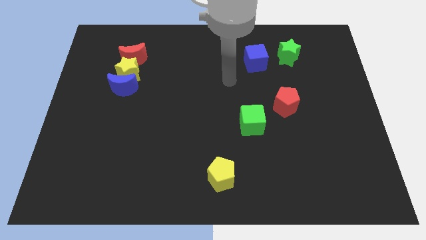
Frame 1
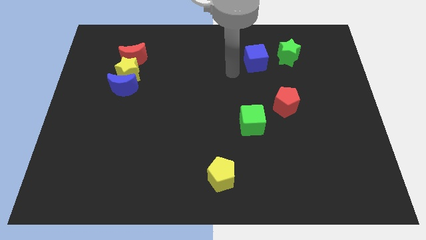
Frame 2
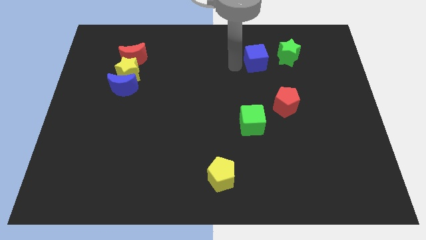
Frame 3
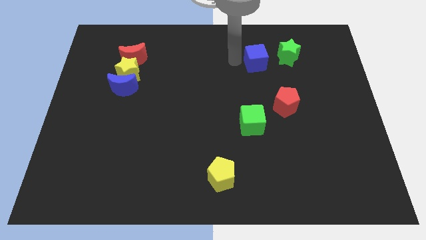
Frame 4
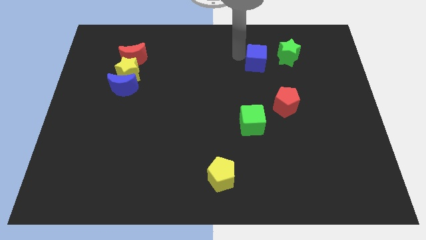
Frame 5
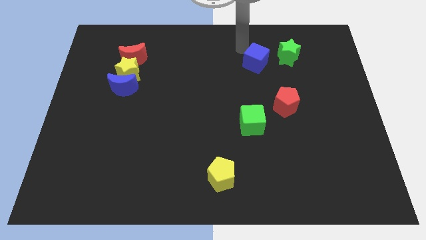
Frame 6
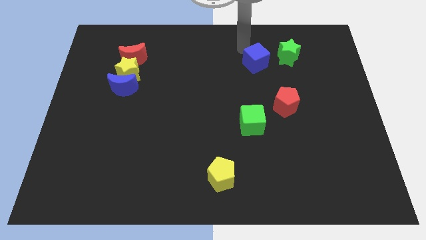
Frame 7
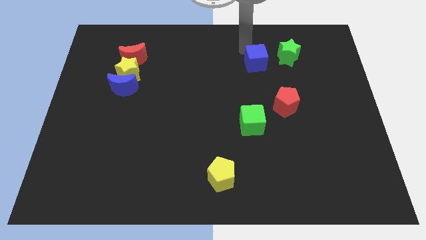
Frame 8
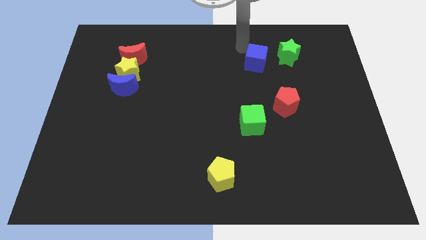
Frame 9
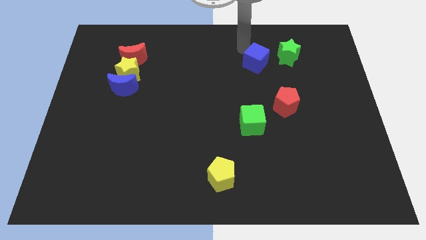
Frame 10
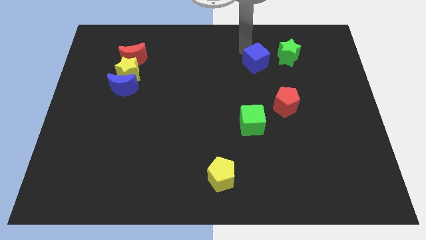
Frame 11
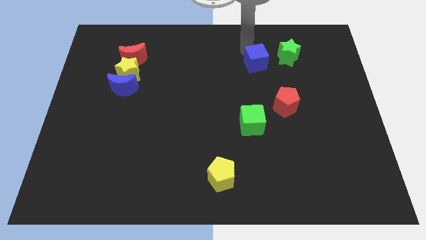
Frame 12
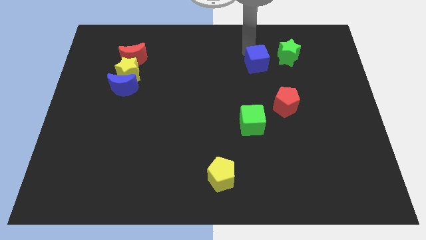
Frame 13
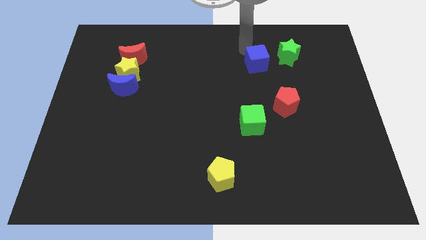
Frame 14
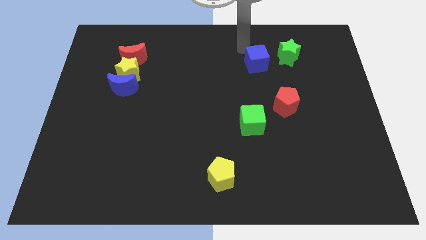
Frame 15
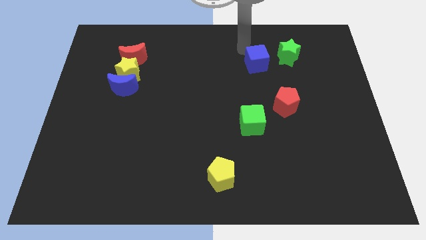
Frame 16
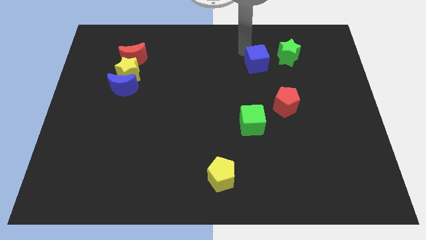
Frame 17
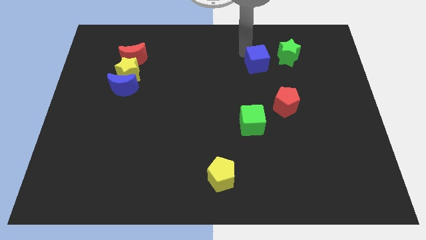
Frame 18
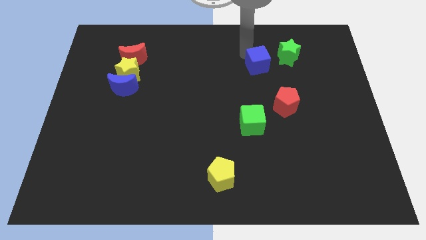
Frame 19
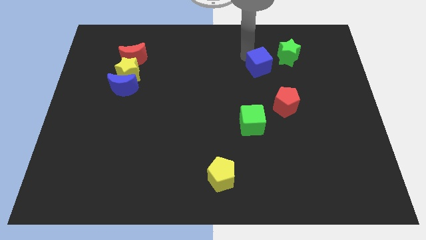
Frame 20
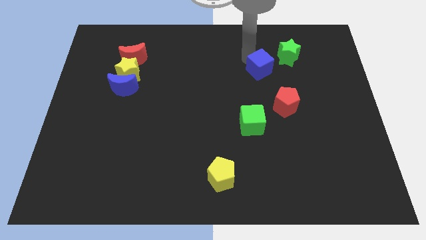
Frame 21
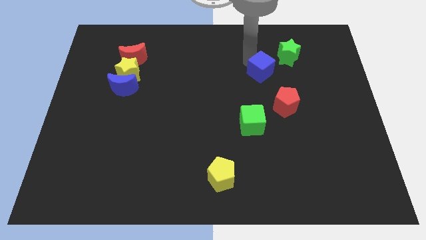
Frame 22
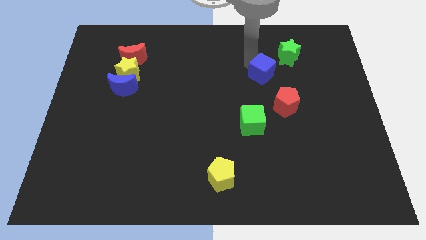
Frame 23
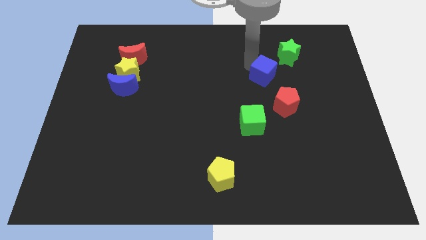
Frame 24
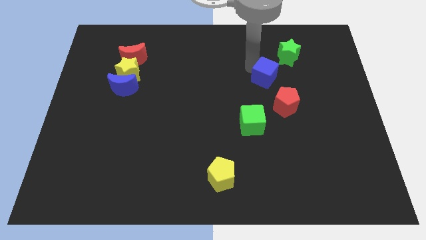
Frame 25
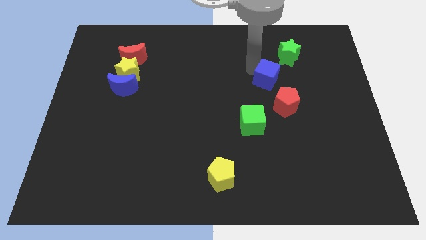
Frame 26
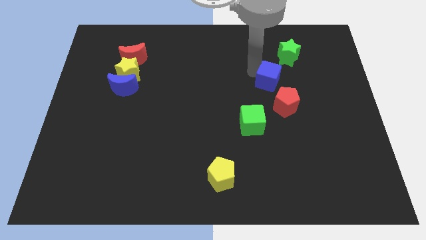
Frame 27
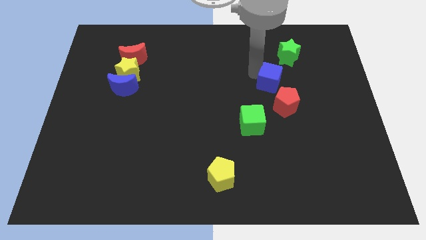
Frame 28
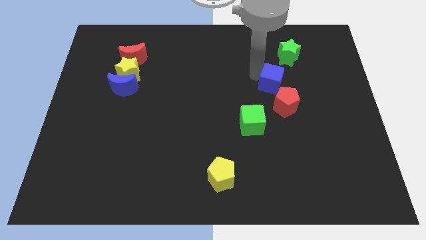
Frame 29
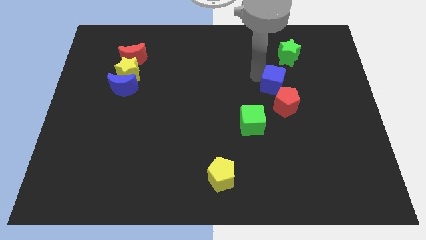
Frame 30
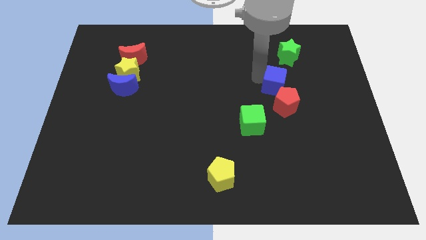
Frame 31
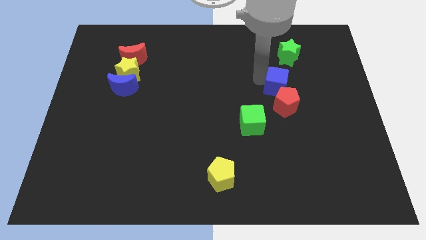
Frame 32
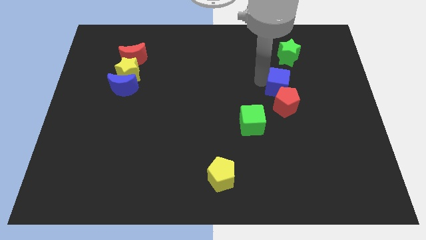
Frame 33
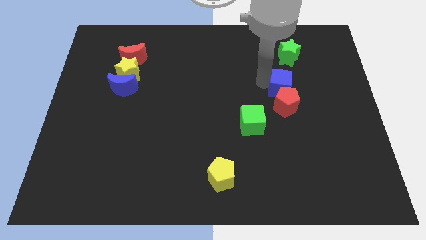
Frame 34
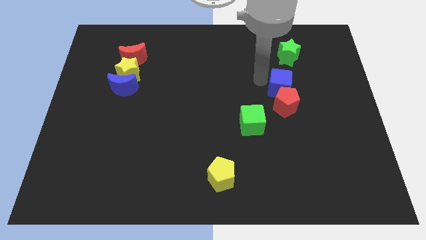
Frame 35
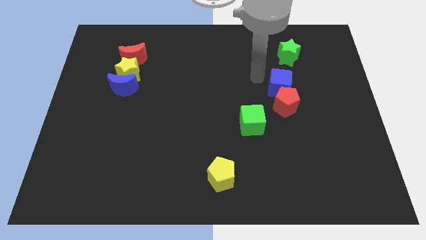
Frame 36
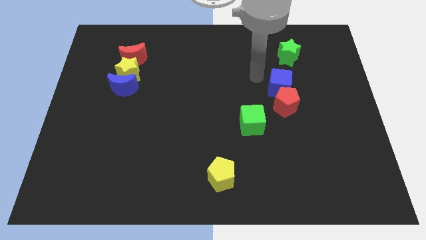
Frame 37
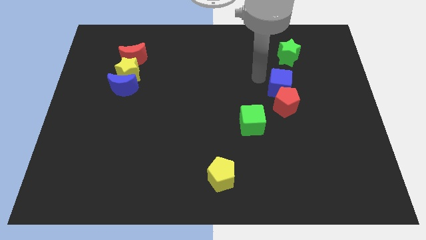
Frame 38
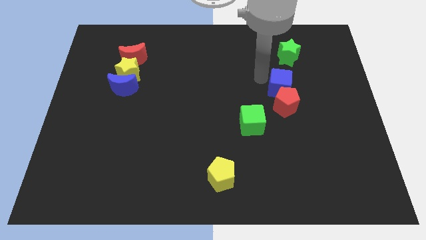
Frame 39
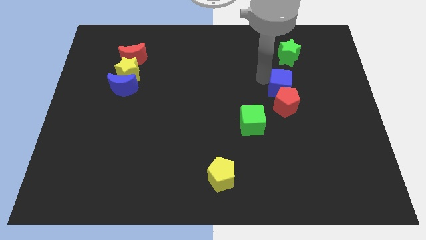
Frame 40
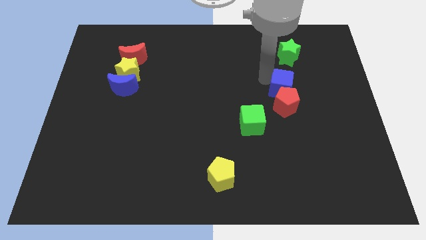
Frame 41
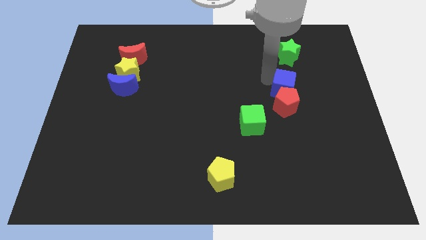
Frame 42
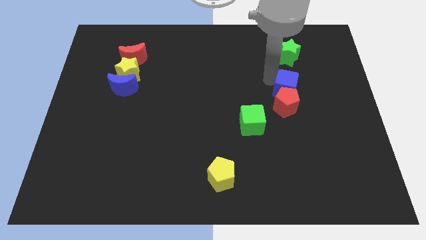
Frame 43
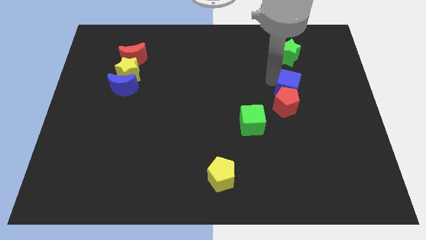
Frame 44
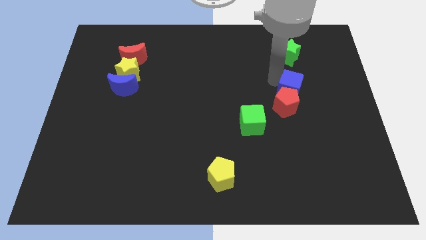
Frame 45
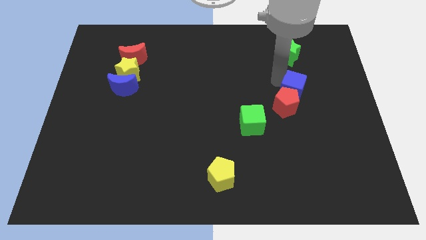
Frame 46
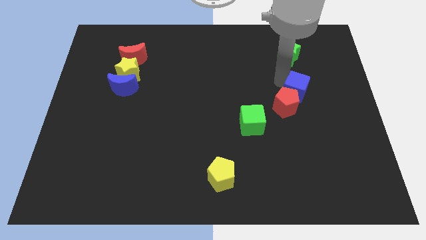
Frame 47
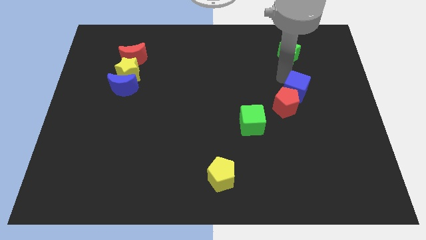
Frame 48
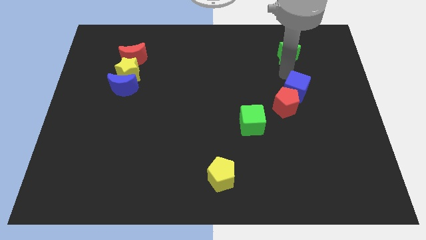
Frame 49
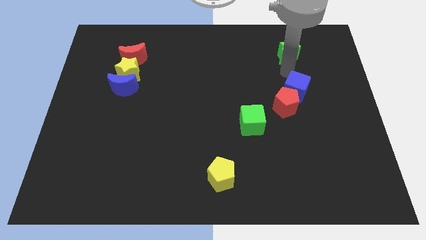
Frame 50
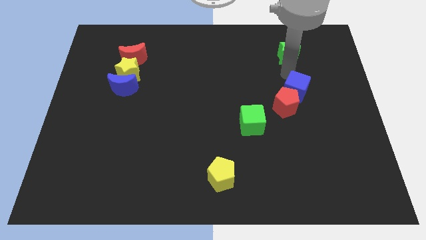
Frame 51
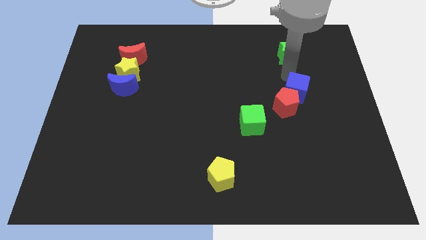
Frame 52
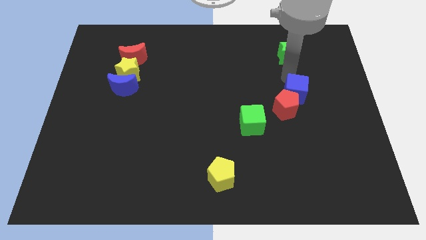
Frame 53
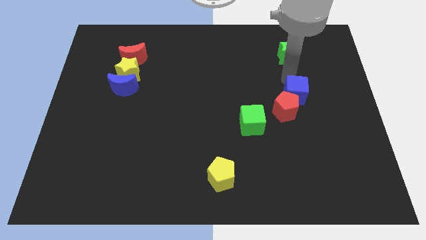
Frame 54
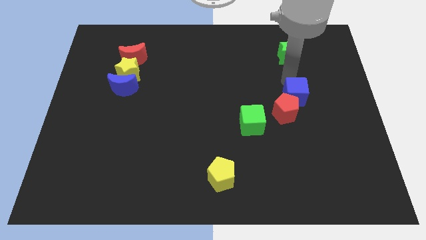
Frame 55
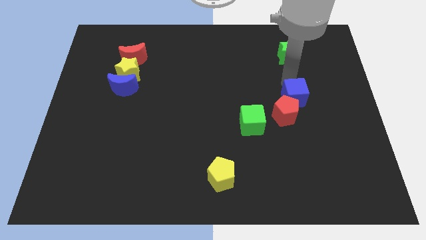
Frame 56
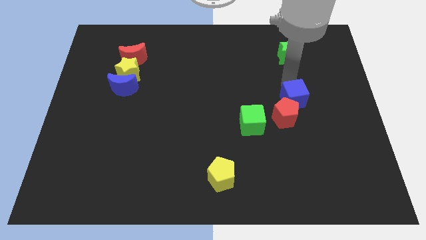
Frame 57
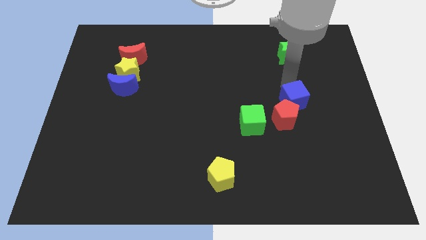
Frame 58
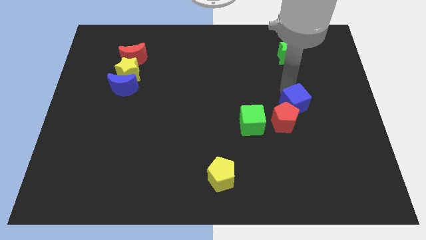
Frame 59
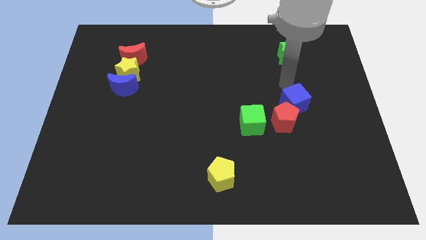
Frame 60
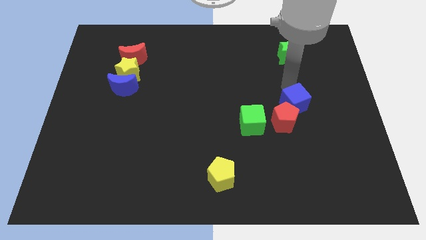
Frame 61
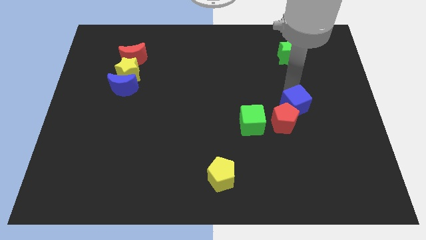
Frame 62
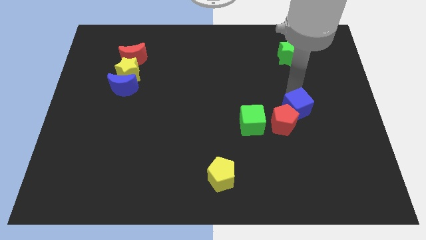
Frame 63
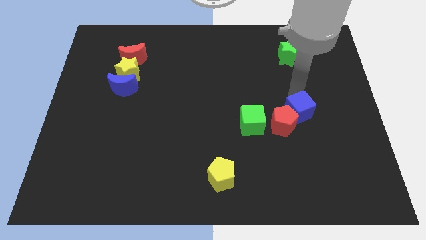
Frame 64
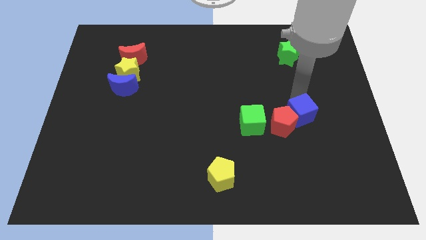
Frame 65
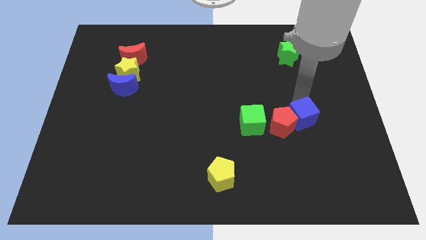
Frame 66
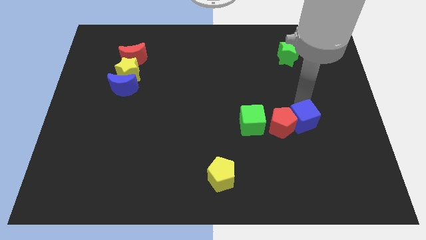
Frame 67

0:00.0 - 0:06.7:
push the blue cube to the bottom right of the red pentagon

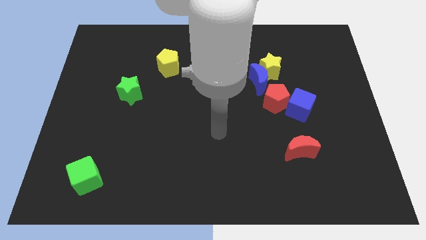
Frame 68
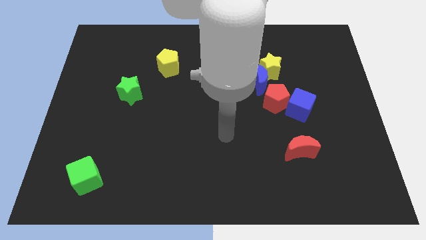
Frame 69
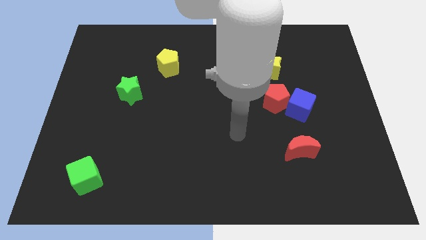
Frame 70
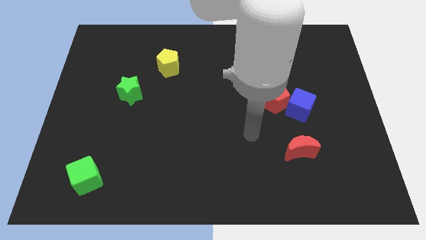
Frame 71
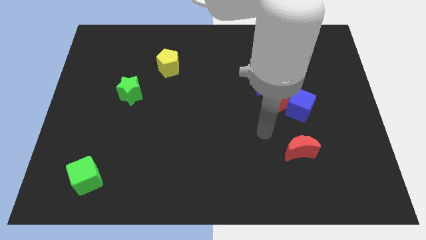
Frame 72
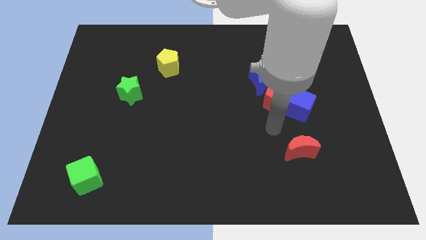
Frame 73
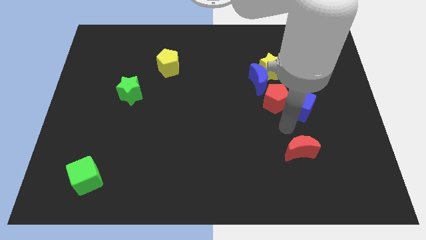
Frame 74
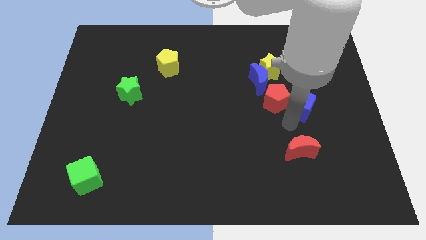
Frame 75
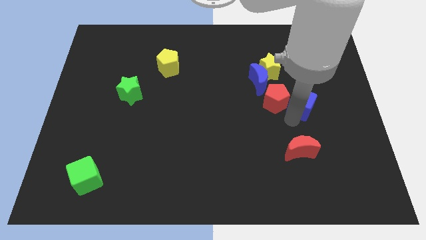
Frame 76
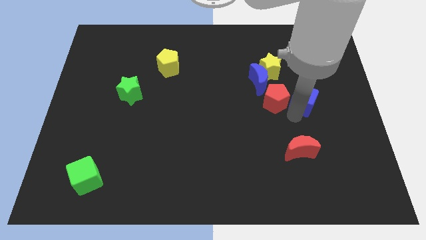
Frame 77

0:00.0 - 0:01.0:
slide the blue cube to the top right side of the red pentagon
